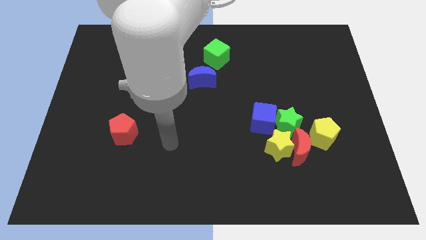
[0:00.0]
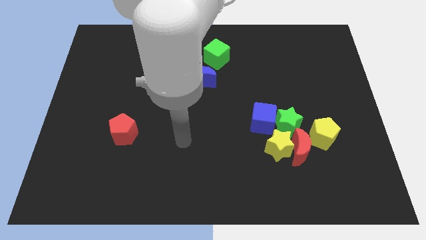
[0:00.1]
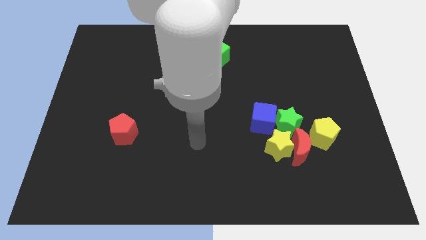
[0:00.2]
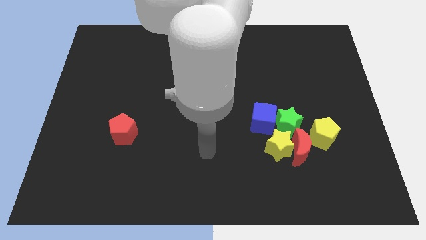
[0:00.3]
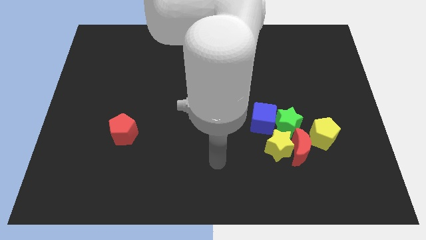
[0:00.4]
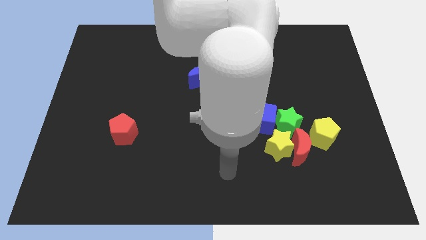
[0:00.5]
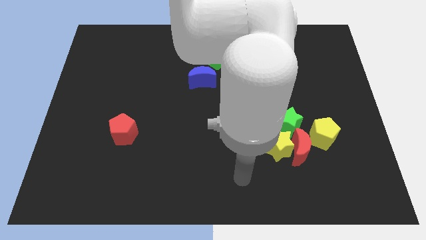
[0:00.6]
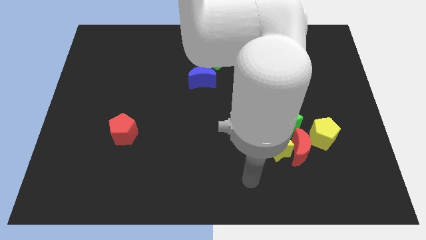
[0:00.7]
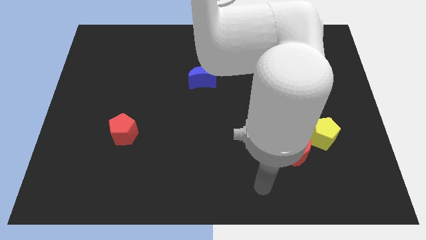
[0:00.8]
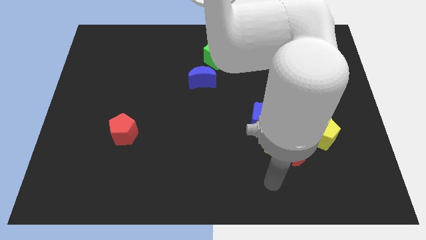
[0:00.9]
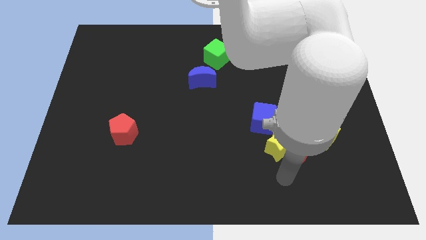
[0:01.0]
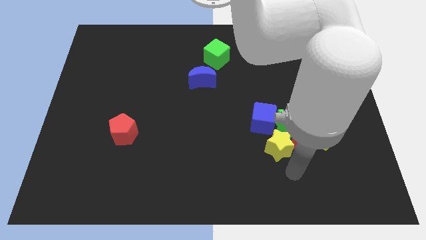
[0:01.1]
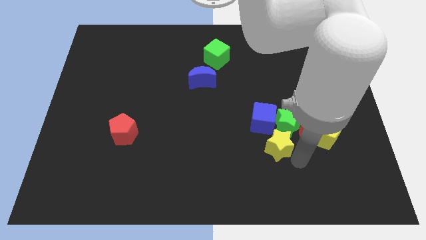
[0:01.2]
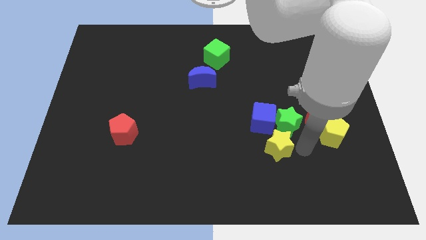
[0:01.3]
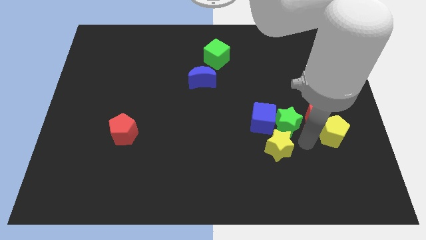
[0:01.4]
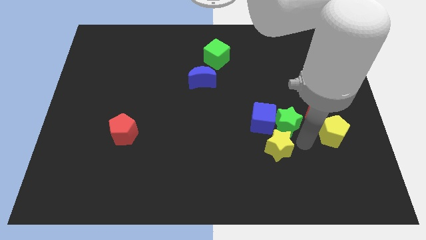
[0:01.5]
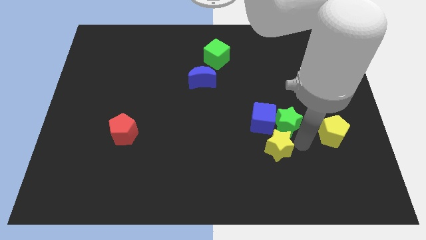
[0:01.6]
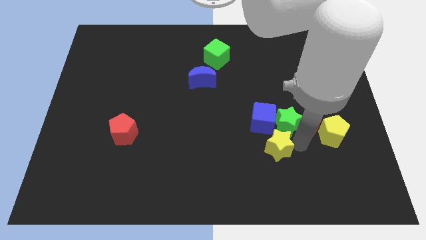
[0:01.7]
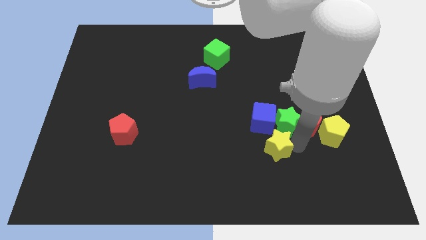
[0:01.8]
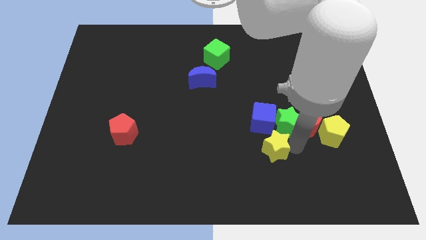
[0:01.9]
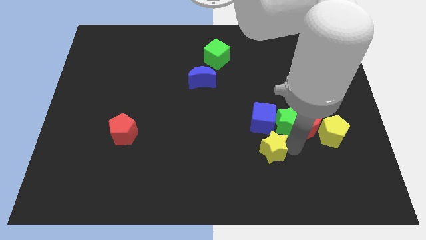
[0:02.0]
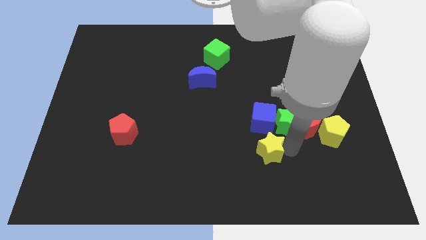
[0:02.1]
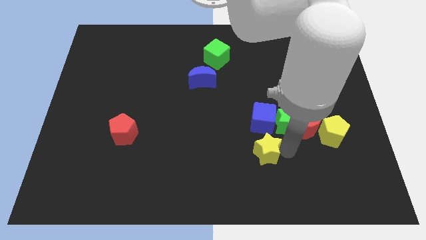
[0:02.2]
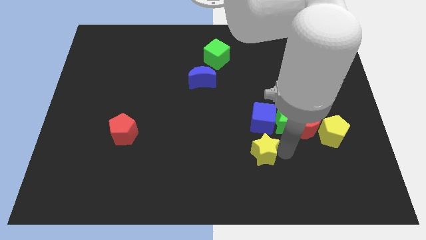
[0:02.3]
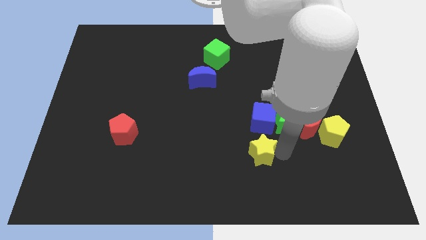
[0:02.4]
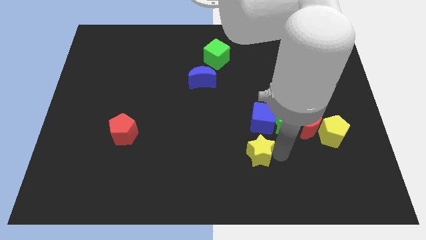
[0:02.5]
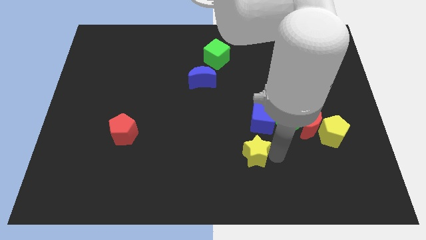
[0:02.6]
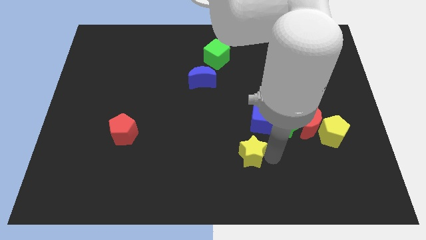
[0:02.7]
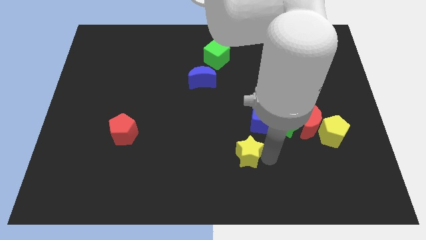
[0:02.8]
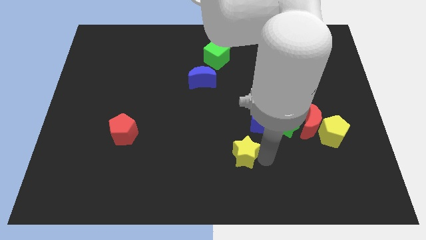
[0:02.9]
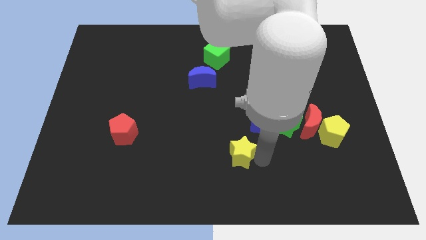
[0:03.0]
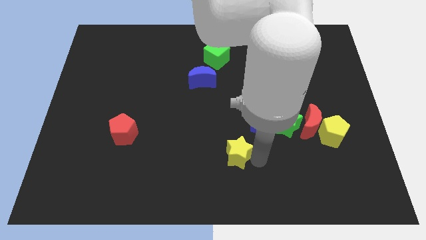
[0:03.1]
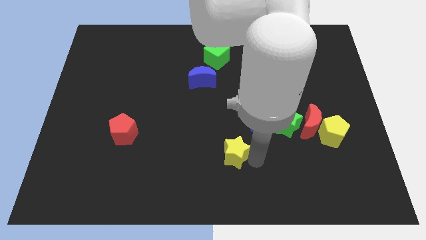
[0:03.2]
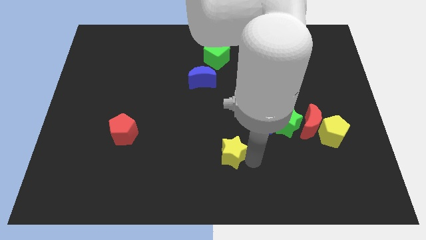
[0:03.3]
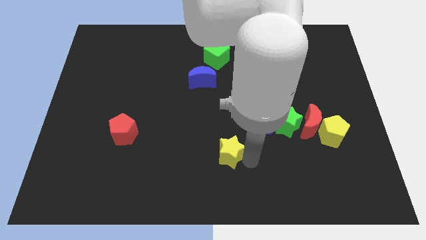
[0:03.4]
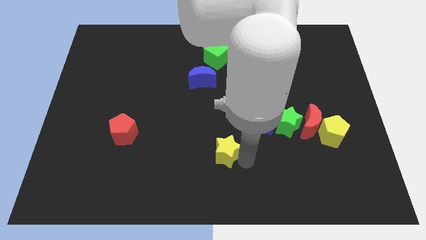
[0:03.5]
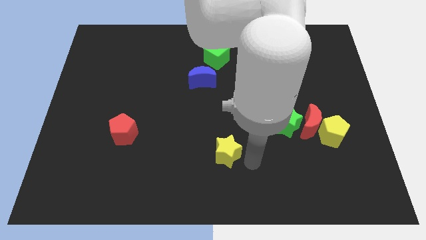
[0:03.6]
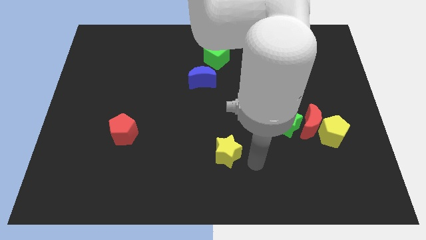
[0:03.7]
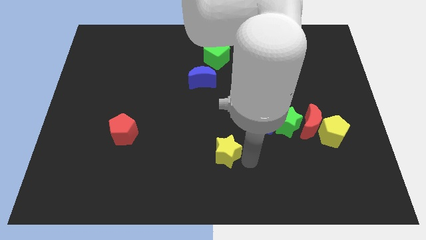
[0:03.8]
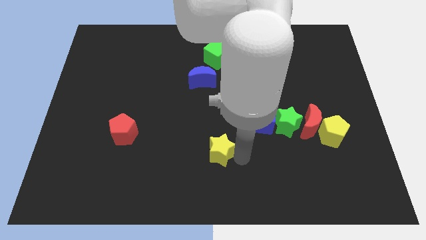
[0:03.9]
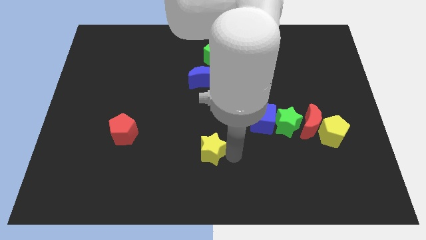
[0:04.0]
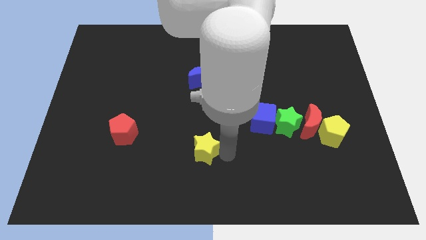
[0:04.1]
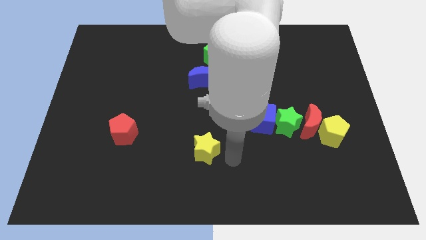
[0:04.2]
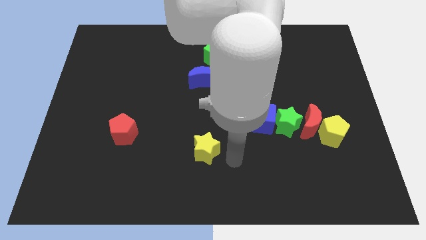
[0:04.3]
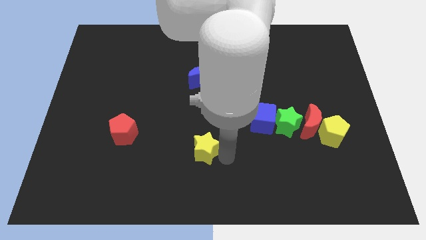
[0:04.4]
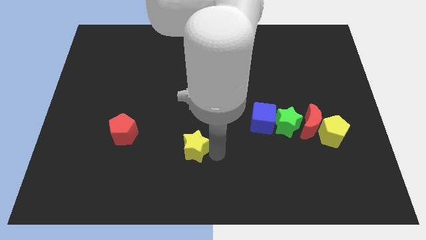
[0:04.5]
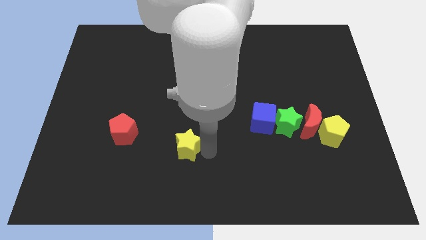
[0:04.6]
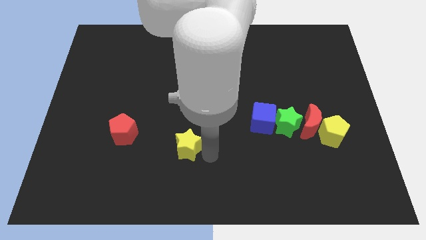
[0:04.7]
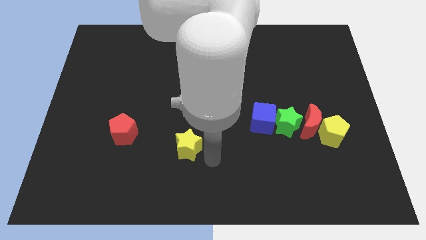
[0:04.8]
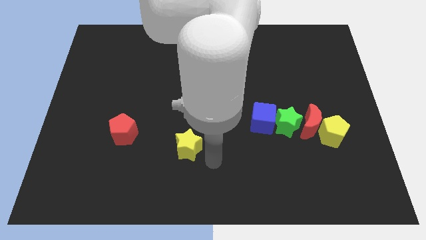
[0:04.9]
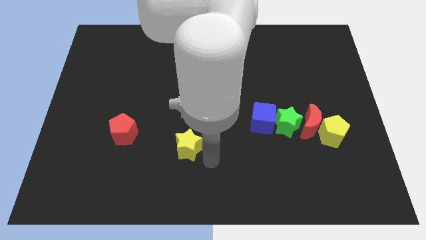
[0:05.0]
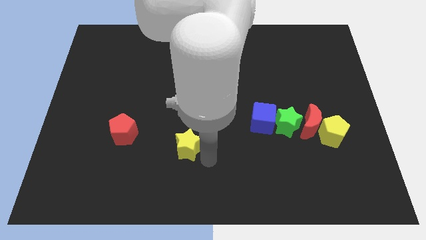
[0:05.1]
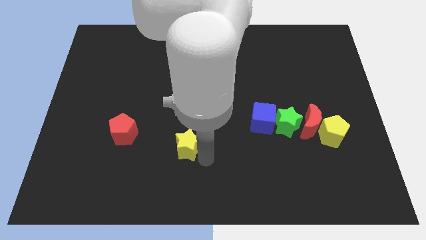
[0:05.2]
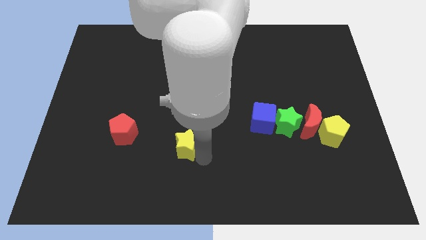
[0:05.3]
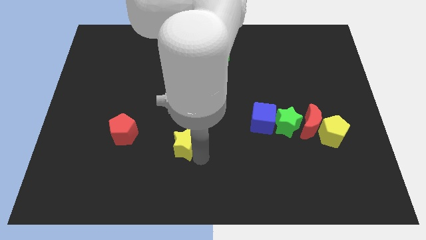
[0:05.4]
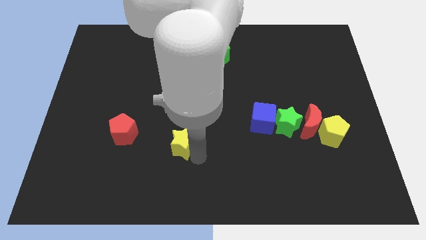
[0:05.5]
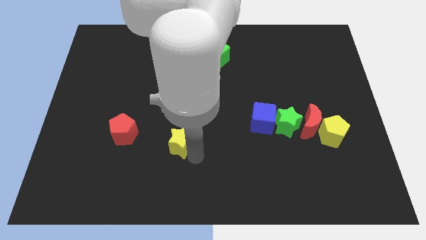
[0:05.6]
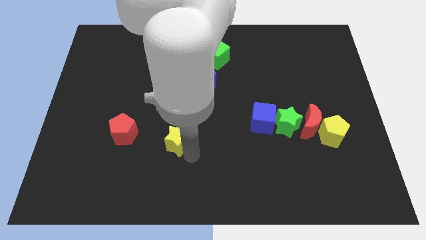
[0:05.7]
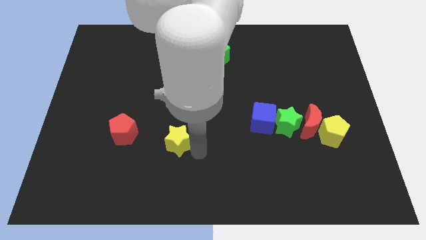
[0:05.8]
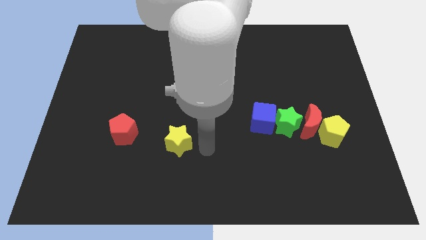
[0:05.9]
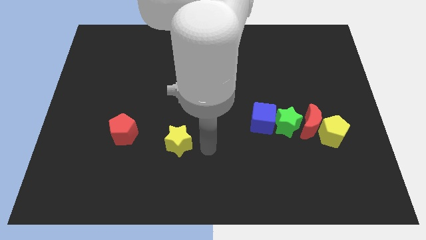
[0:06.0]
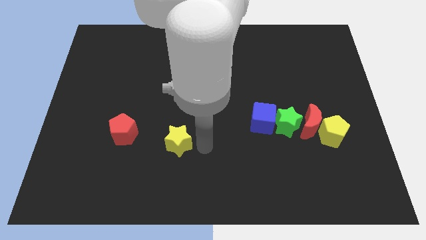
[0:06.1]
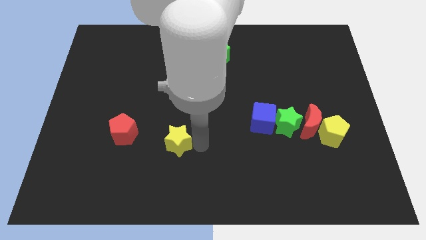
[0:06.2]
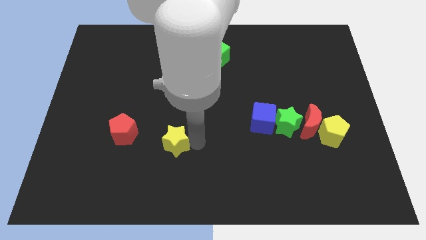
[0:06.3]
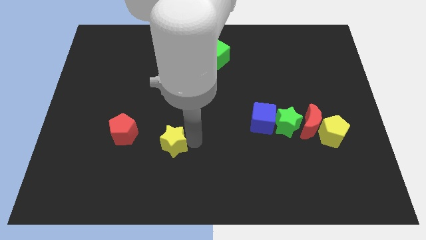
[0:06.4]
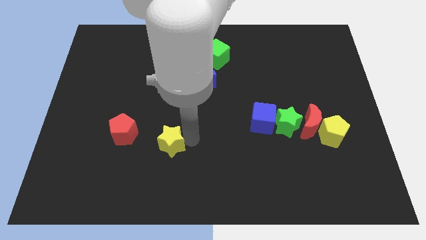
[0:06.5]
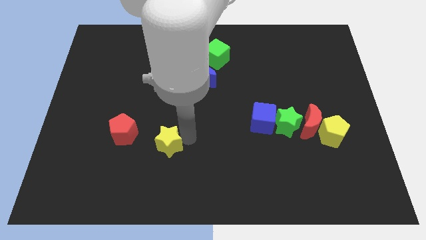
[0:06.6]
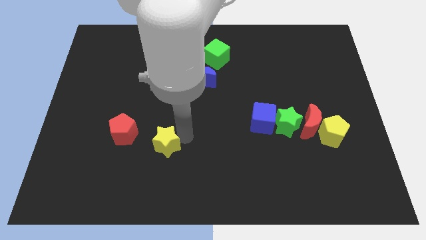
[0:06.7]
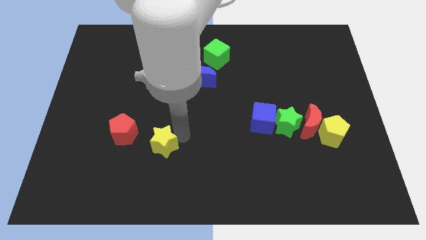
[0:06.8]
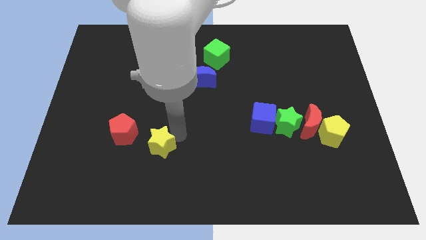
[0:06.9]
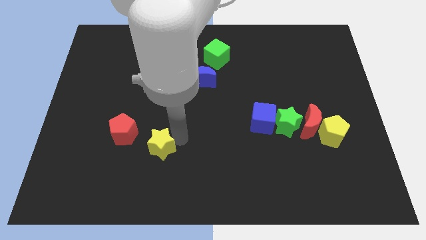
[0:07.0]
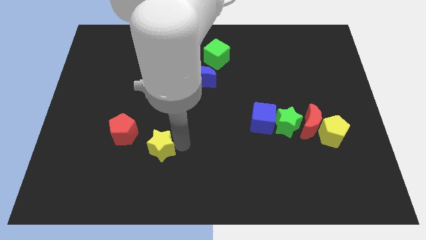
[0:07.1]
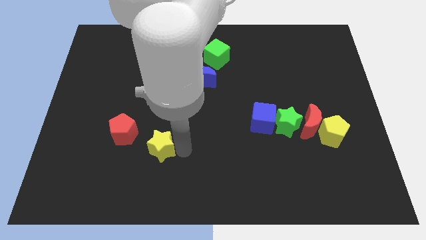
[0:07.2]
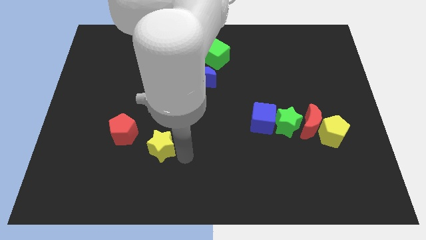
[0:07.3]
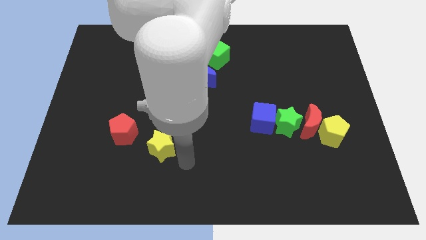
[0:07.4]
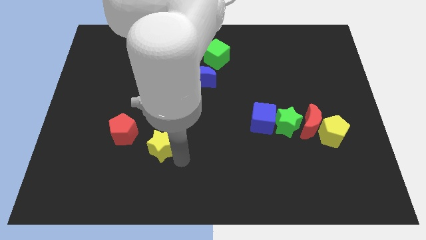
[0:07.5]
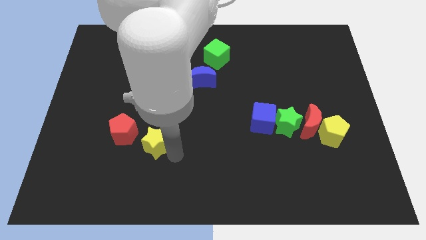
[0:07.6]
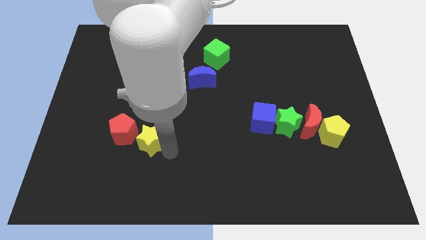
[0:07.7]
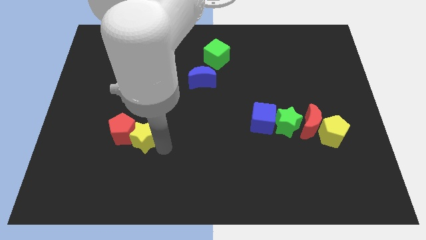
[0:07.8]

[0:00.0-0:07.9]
slide the yellow star close to the red pentagon
